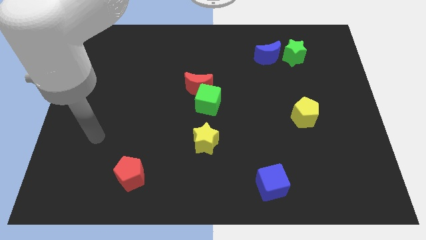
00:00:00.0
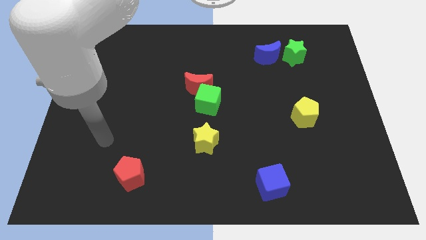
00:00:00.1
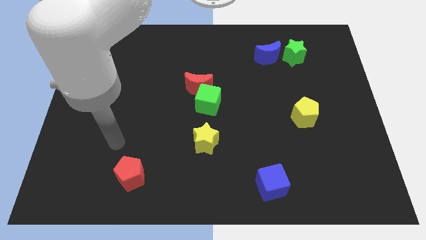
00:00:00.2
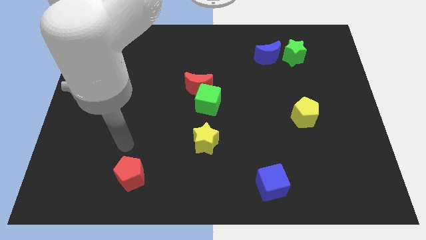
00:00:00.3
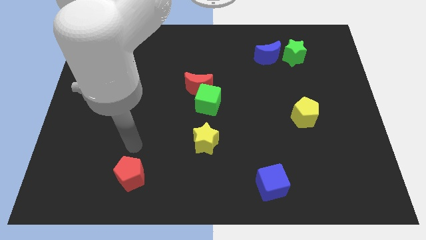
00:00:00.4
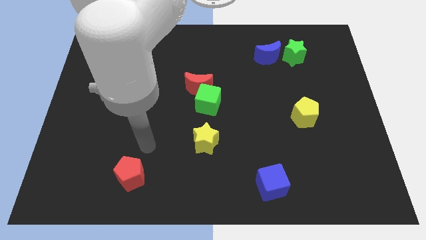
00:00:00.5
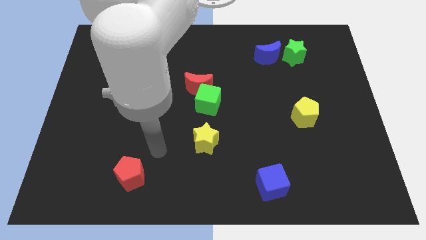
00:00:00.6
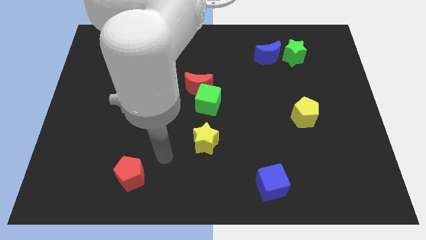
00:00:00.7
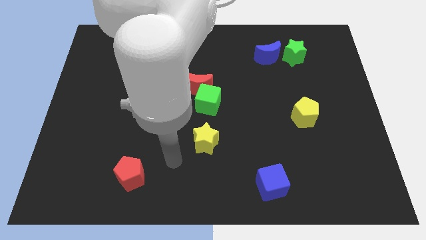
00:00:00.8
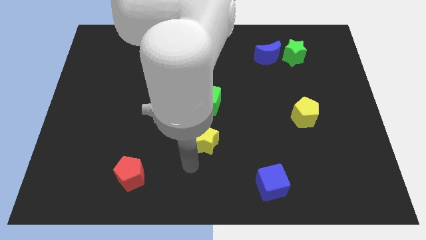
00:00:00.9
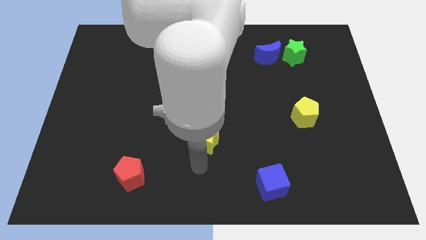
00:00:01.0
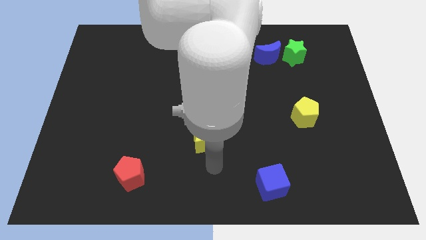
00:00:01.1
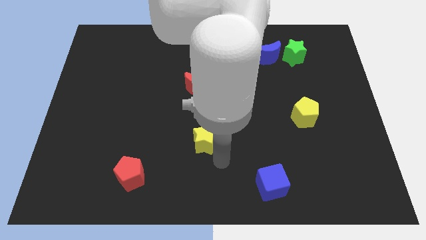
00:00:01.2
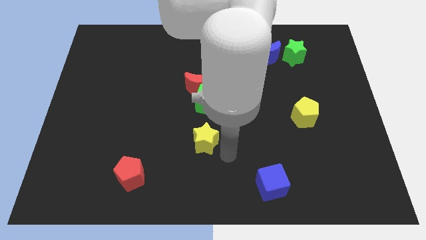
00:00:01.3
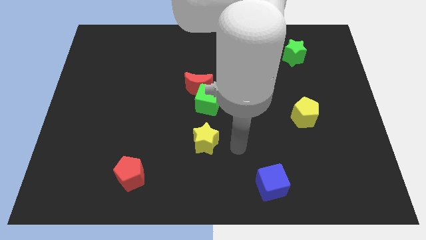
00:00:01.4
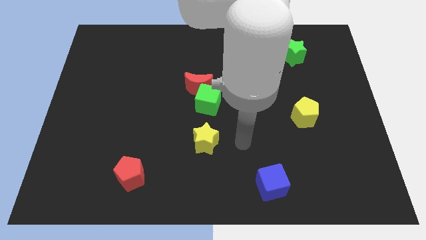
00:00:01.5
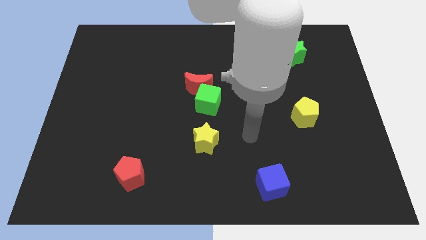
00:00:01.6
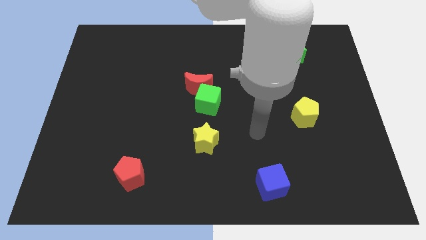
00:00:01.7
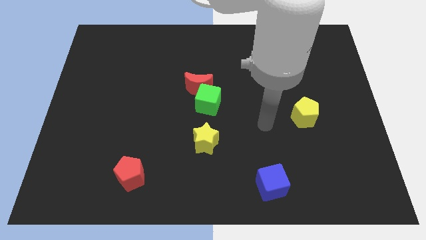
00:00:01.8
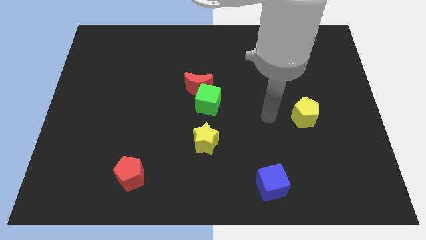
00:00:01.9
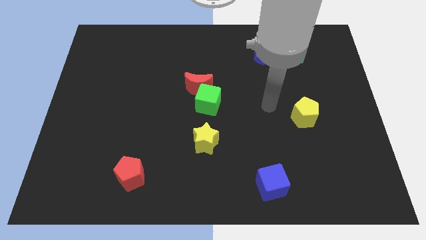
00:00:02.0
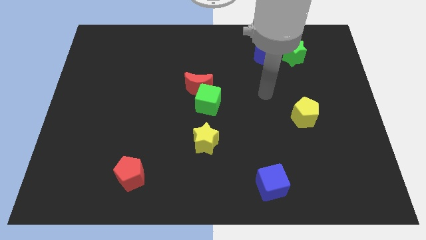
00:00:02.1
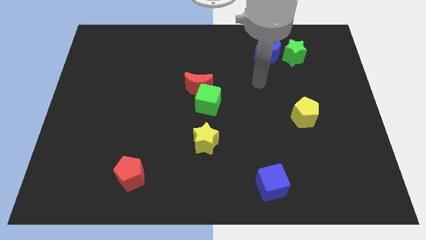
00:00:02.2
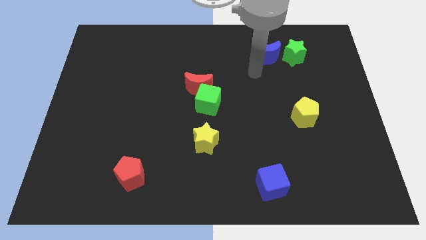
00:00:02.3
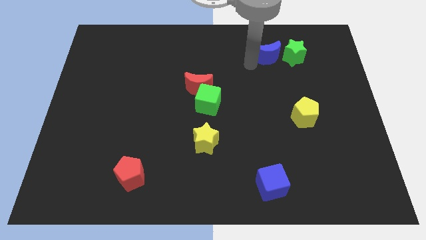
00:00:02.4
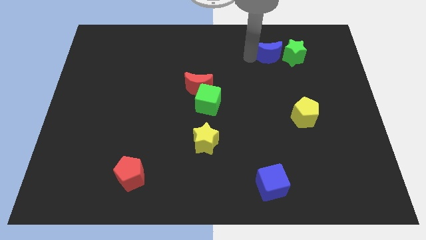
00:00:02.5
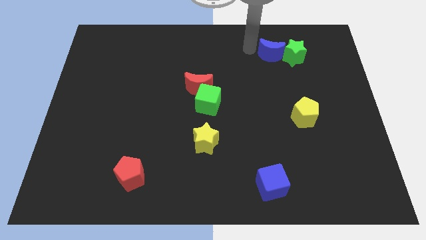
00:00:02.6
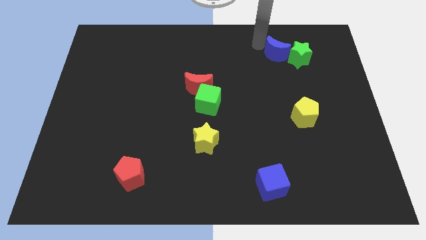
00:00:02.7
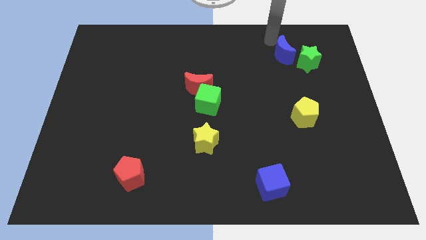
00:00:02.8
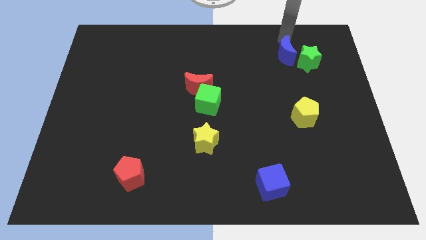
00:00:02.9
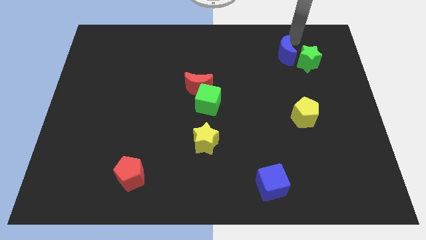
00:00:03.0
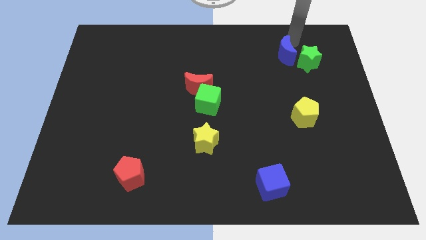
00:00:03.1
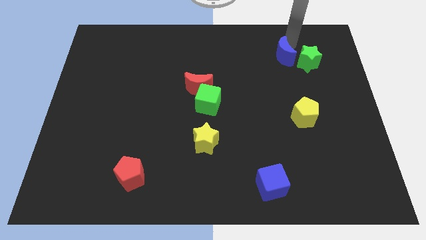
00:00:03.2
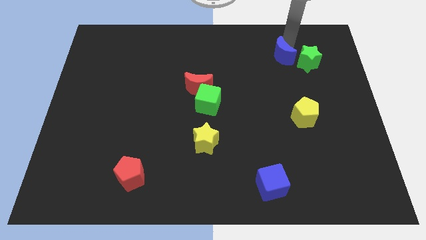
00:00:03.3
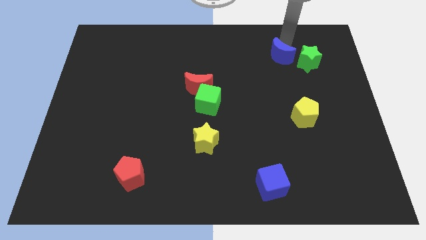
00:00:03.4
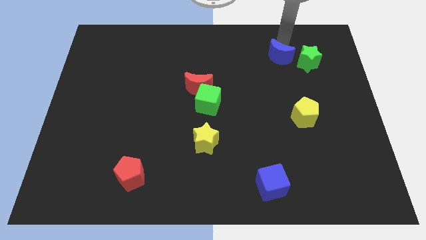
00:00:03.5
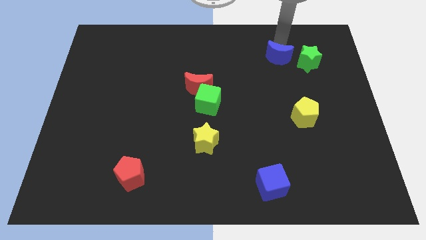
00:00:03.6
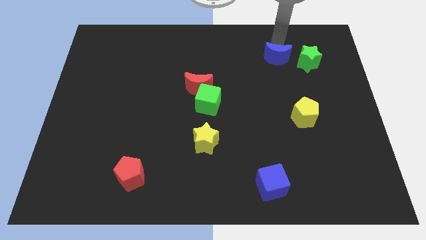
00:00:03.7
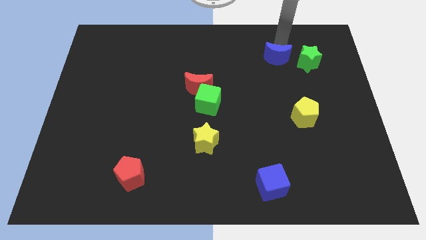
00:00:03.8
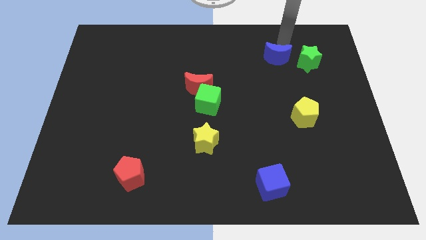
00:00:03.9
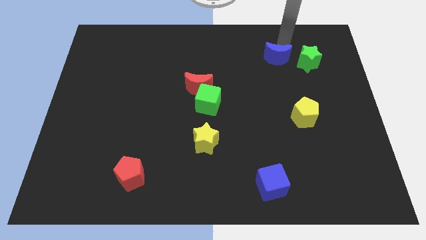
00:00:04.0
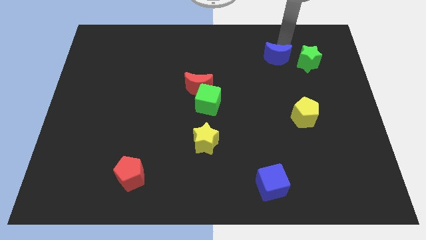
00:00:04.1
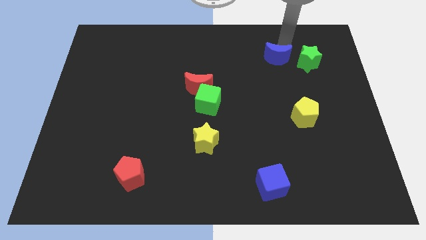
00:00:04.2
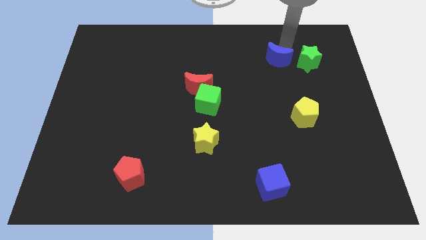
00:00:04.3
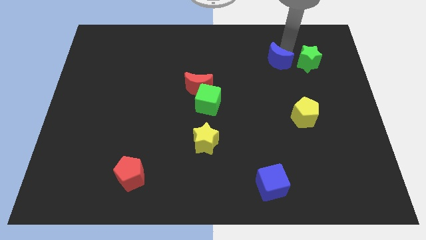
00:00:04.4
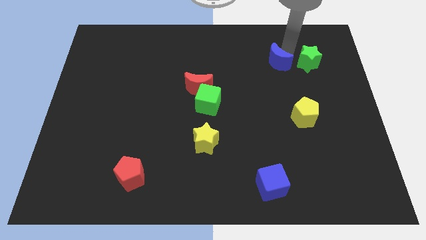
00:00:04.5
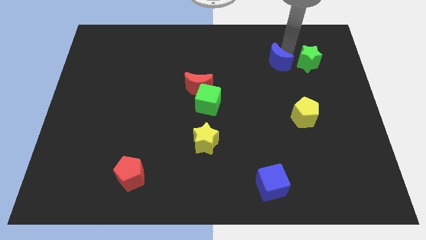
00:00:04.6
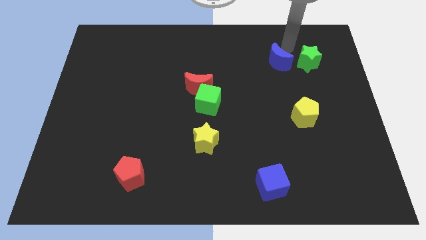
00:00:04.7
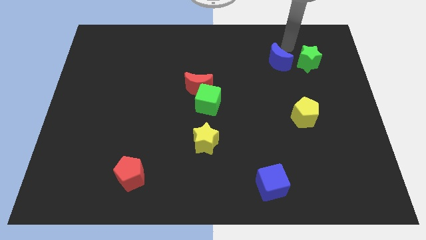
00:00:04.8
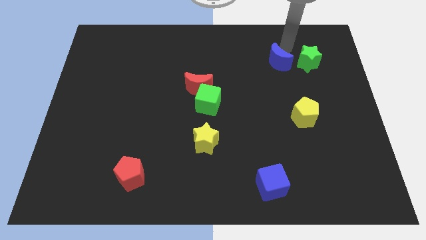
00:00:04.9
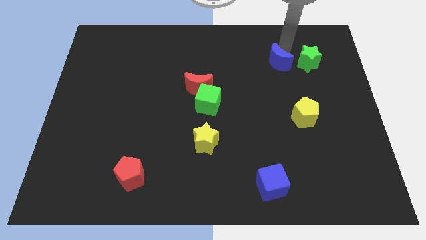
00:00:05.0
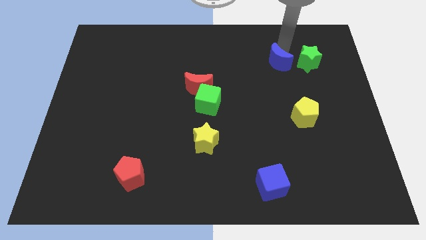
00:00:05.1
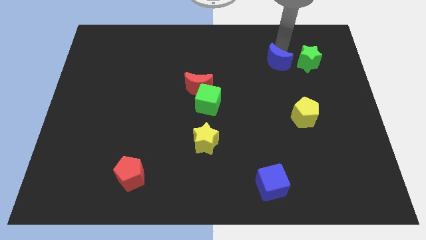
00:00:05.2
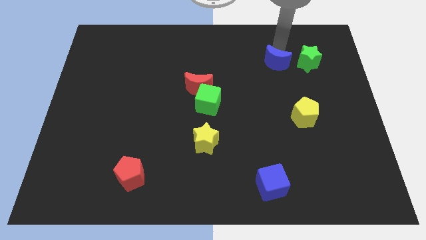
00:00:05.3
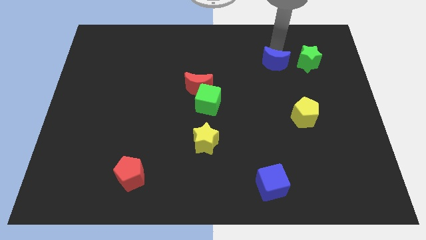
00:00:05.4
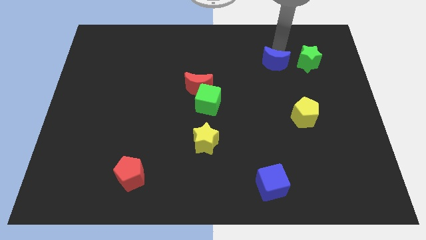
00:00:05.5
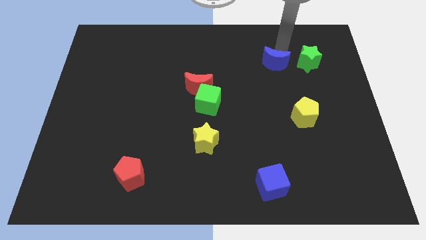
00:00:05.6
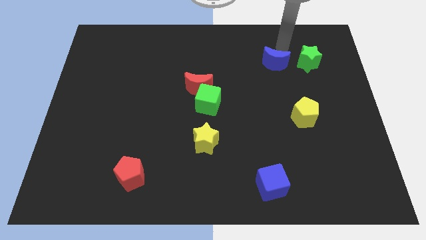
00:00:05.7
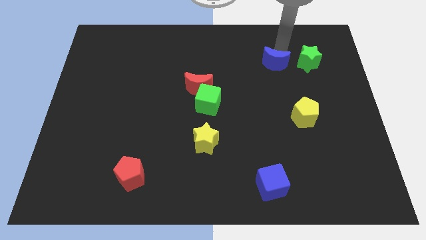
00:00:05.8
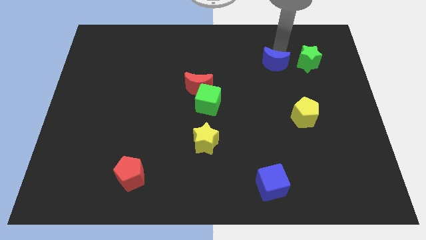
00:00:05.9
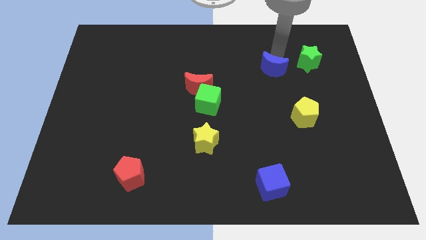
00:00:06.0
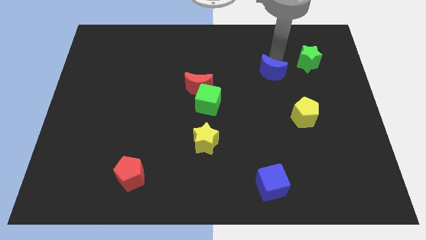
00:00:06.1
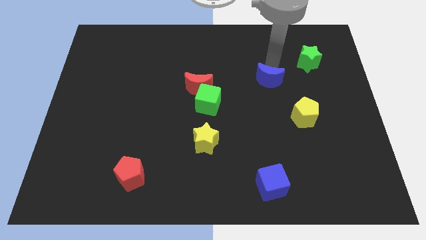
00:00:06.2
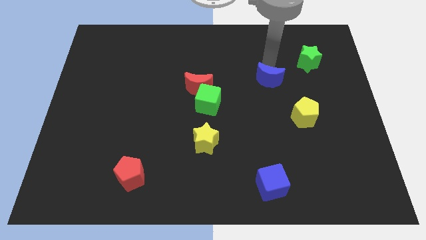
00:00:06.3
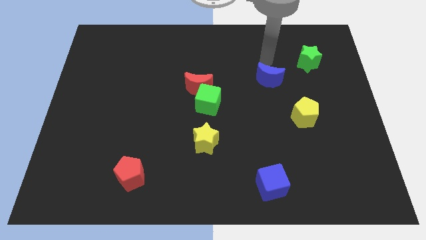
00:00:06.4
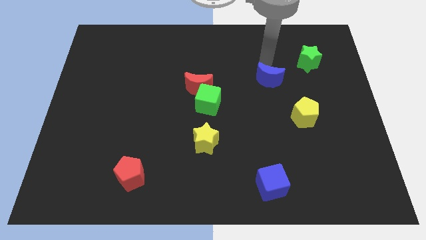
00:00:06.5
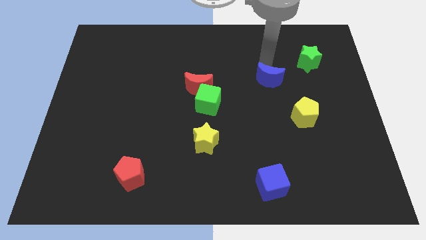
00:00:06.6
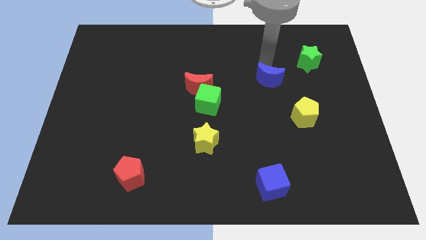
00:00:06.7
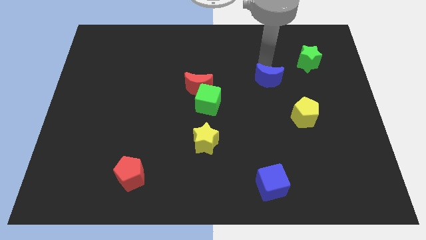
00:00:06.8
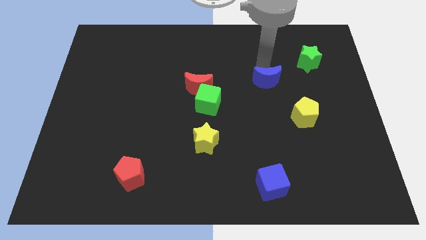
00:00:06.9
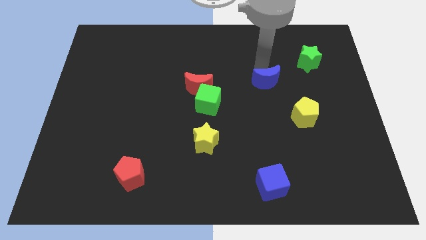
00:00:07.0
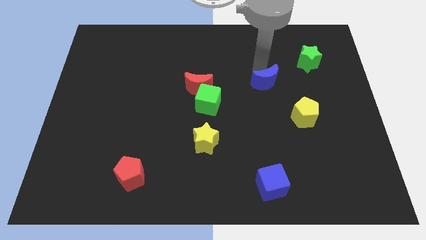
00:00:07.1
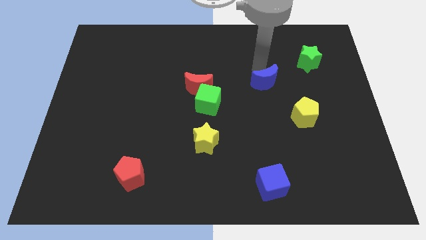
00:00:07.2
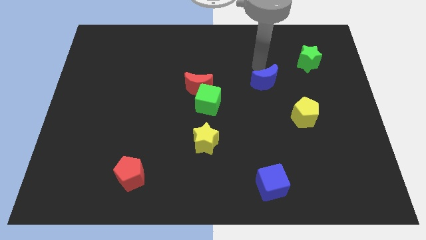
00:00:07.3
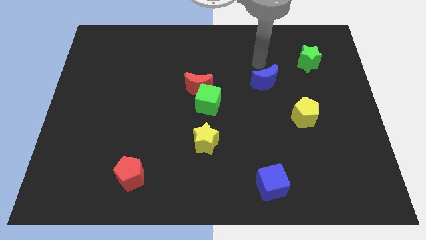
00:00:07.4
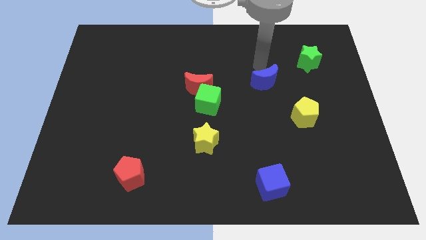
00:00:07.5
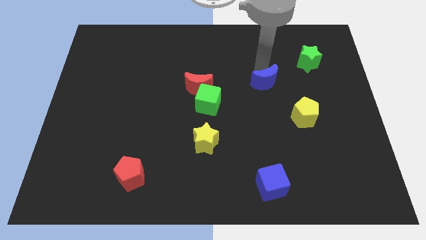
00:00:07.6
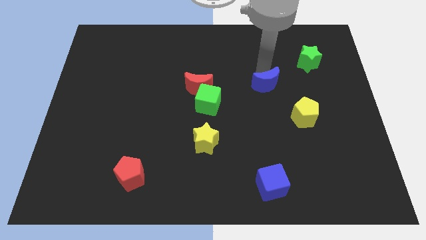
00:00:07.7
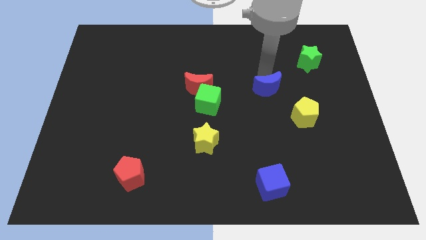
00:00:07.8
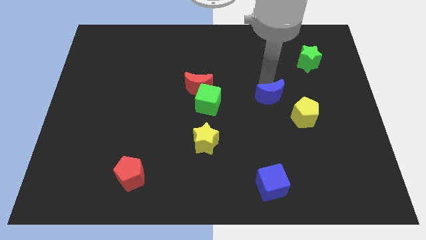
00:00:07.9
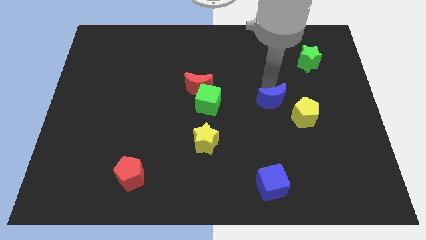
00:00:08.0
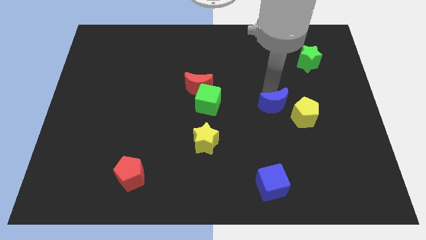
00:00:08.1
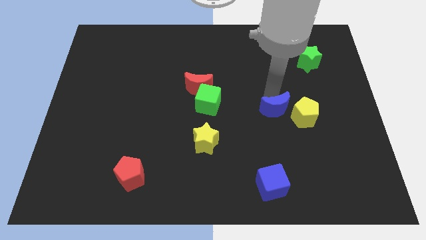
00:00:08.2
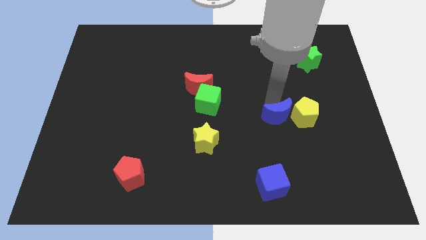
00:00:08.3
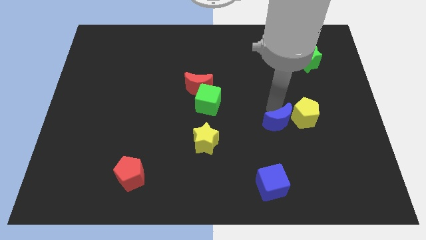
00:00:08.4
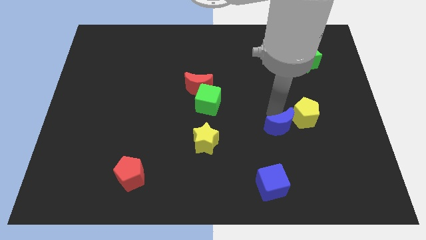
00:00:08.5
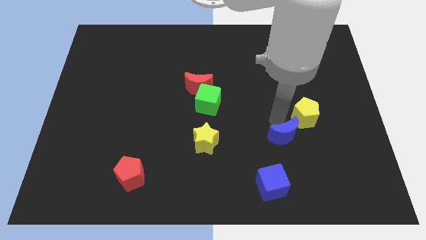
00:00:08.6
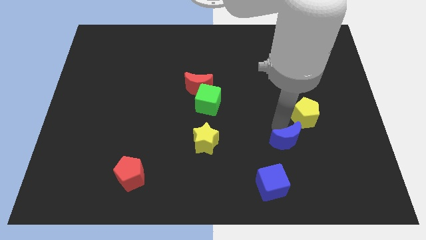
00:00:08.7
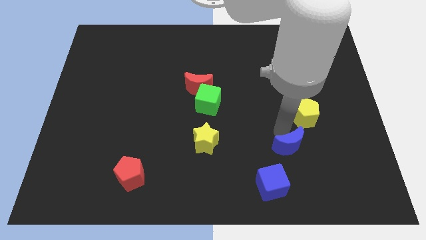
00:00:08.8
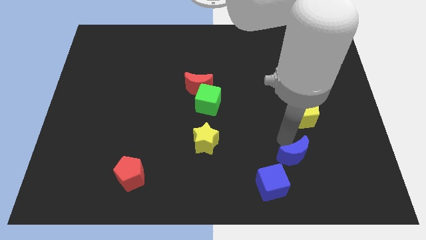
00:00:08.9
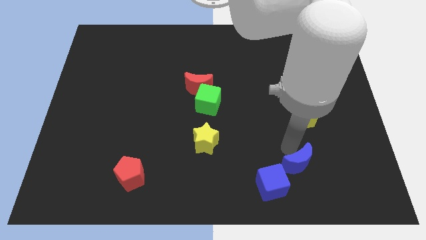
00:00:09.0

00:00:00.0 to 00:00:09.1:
move the blue moon just right of the blue cube
